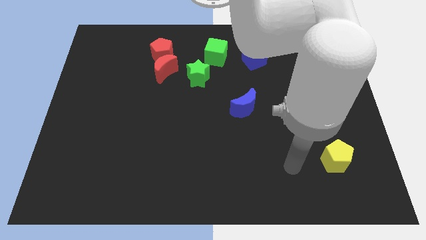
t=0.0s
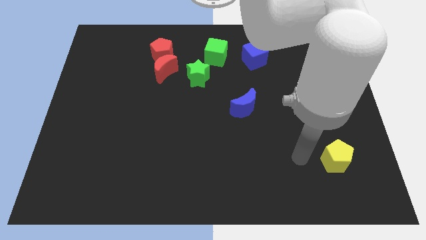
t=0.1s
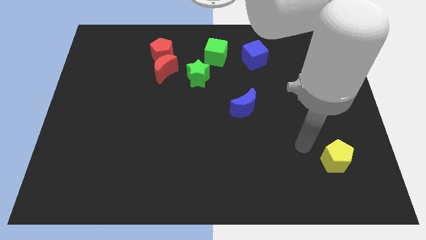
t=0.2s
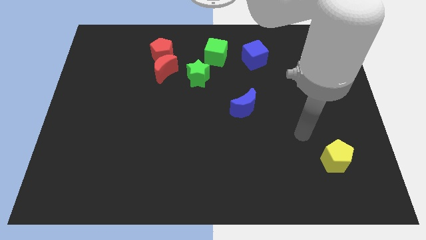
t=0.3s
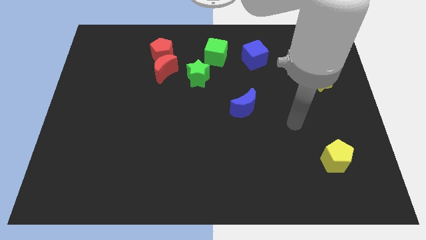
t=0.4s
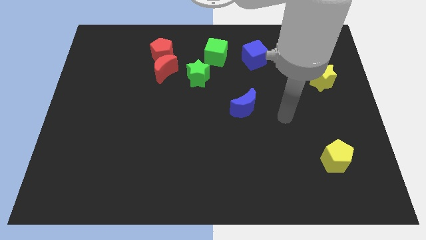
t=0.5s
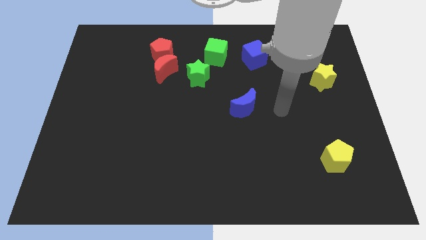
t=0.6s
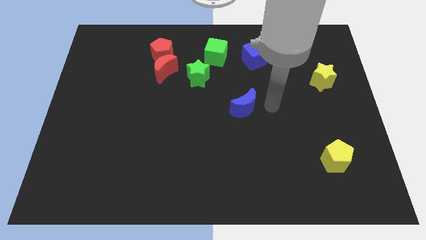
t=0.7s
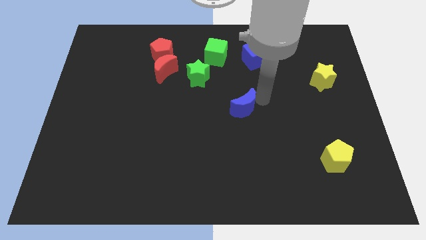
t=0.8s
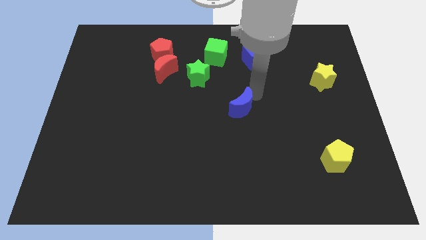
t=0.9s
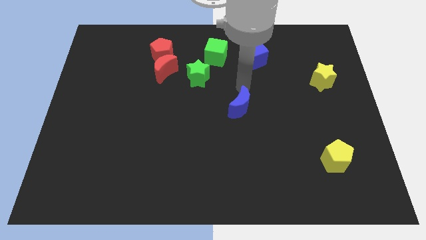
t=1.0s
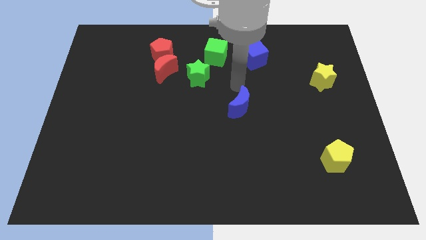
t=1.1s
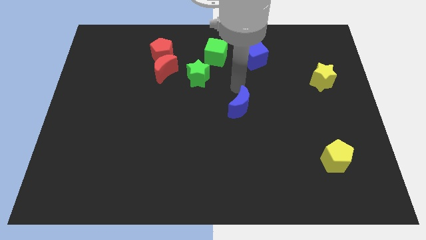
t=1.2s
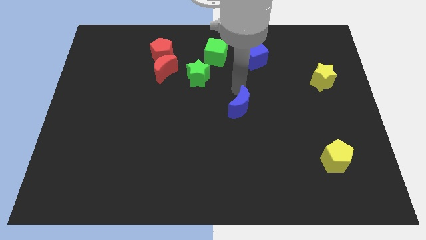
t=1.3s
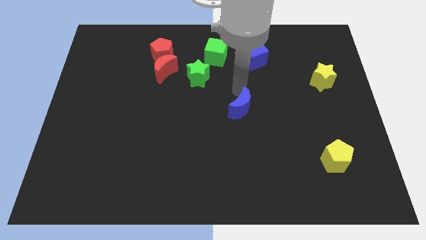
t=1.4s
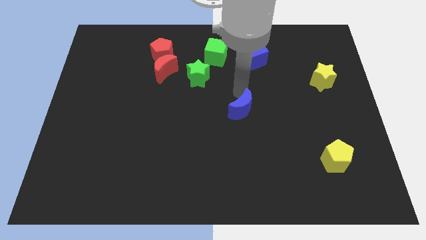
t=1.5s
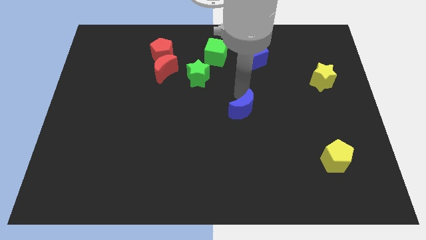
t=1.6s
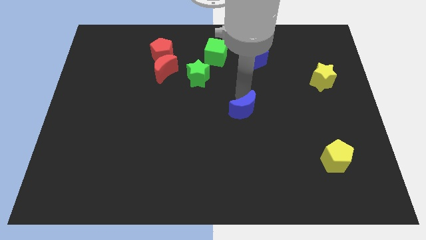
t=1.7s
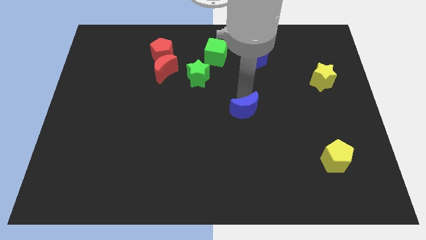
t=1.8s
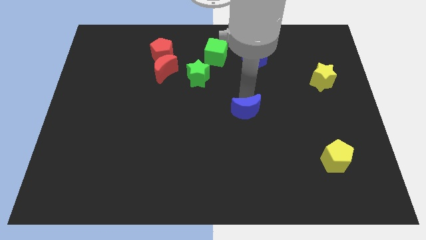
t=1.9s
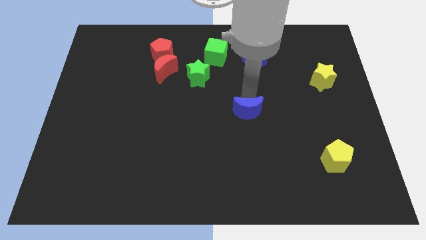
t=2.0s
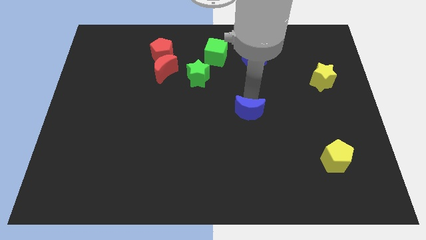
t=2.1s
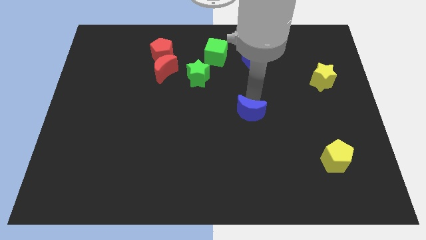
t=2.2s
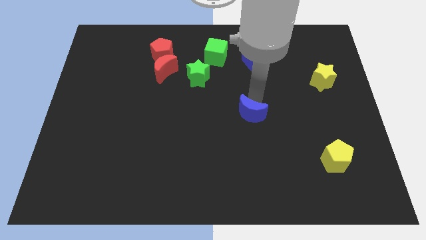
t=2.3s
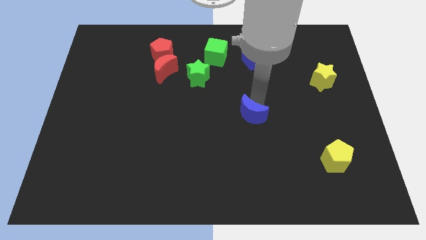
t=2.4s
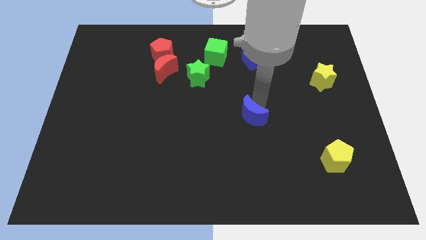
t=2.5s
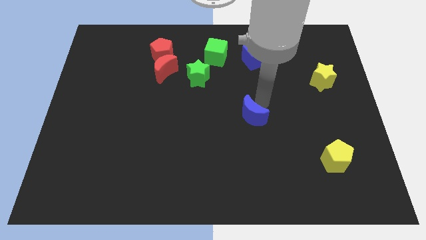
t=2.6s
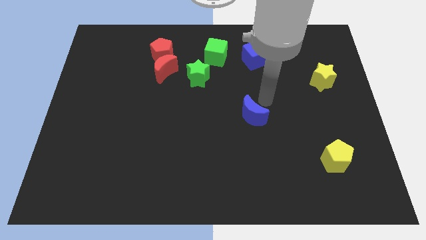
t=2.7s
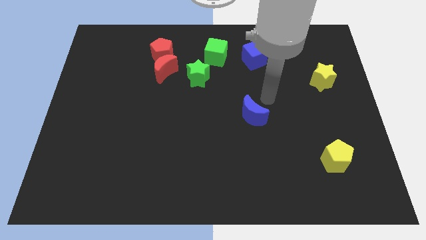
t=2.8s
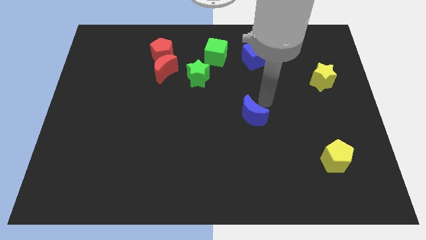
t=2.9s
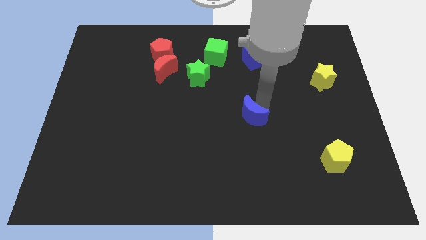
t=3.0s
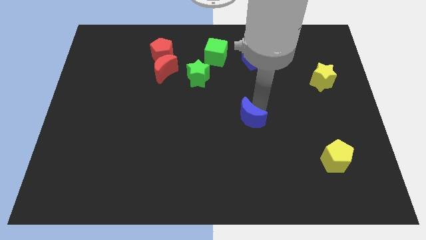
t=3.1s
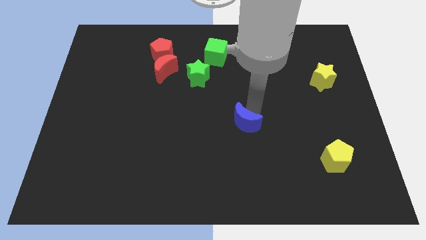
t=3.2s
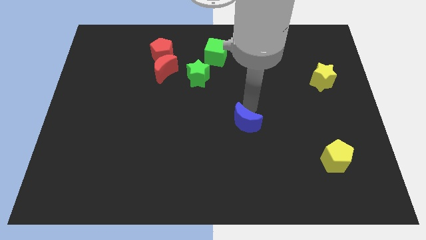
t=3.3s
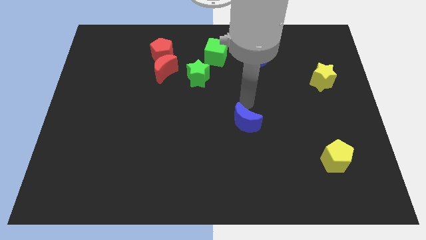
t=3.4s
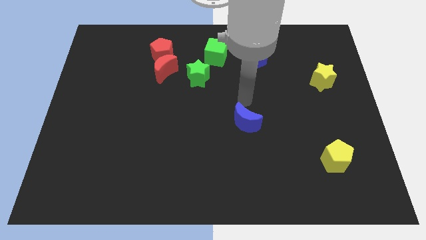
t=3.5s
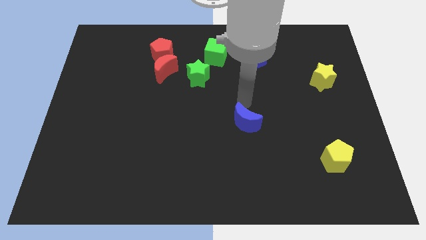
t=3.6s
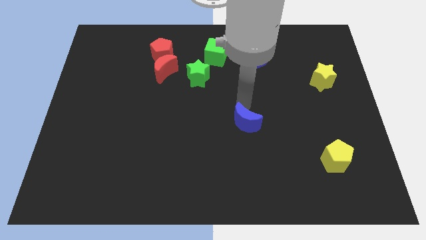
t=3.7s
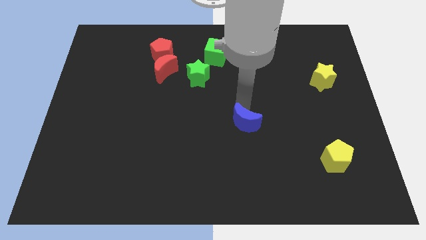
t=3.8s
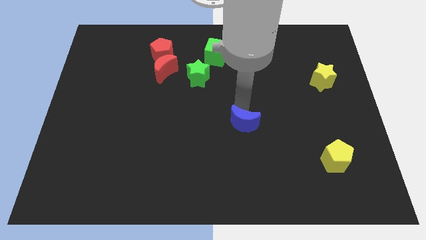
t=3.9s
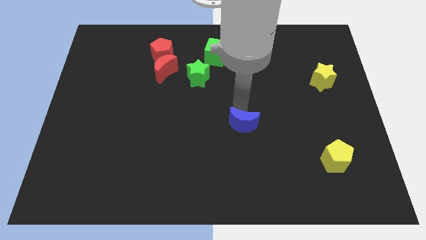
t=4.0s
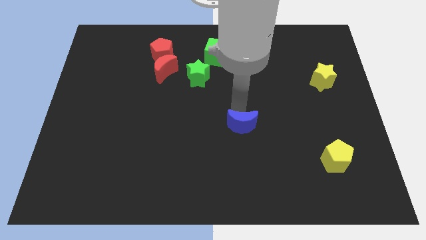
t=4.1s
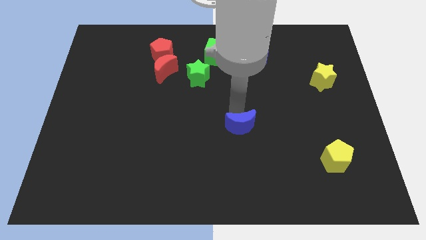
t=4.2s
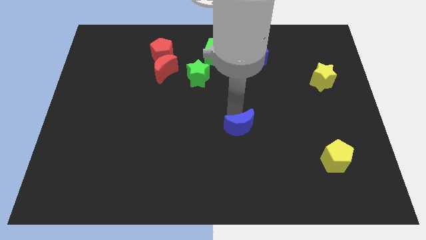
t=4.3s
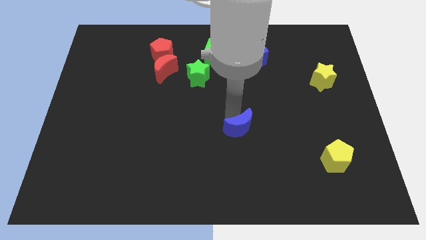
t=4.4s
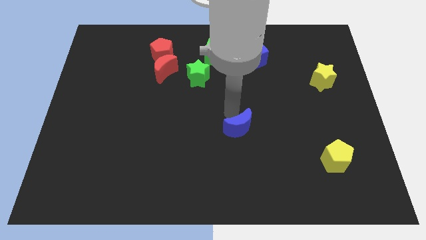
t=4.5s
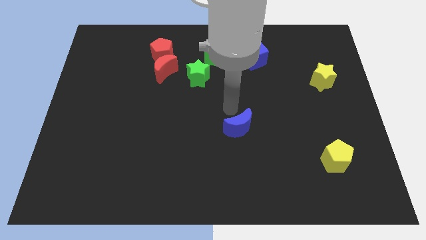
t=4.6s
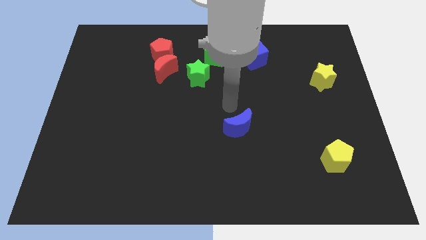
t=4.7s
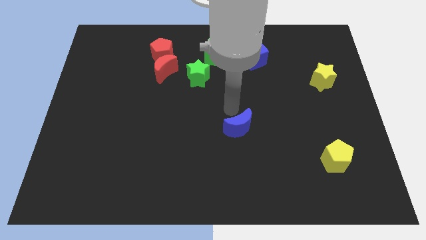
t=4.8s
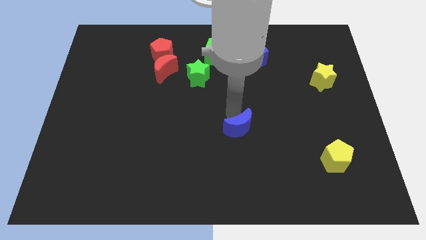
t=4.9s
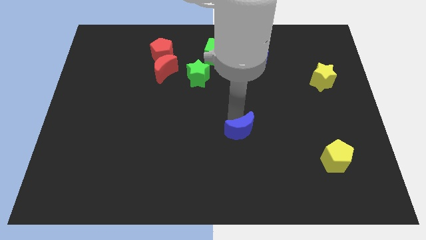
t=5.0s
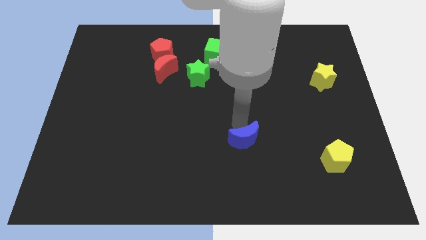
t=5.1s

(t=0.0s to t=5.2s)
move the blue moon slightly down

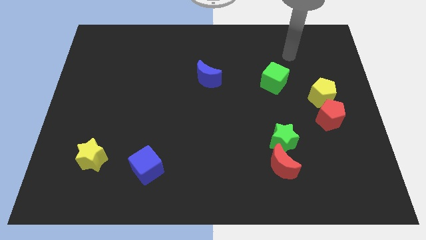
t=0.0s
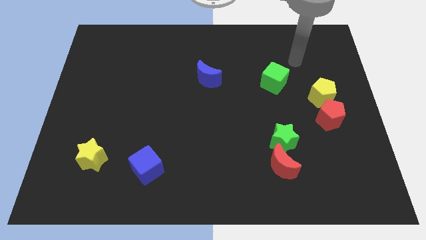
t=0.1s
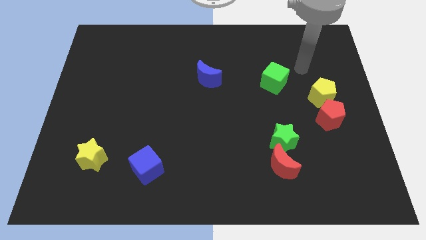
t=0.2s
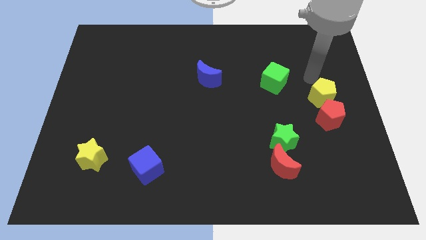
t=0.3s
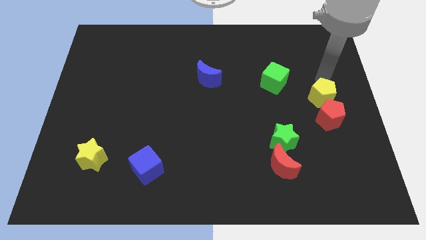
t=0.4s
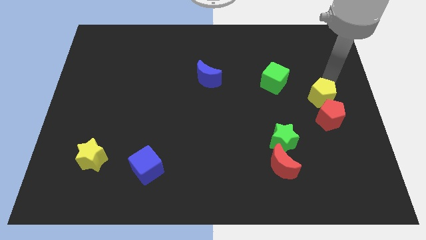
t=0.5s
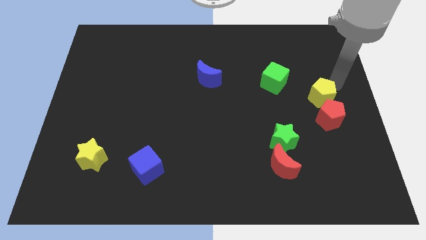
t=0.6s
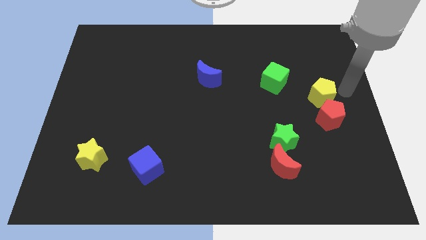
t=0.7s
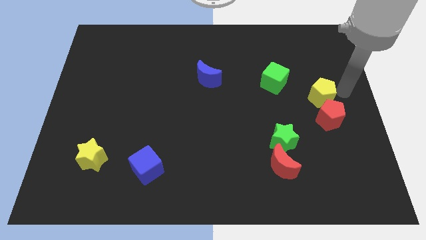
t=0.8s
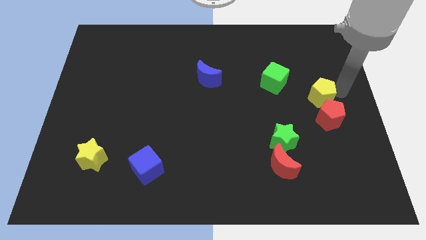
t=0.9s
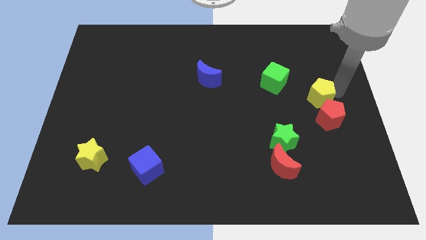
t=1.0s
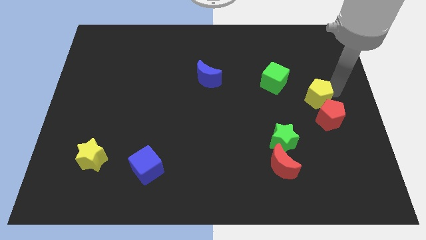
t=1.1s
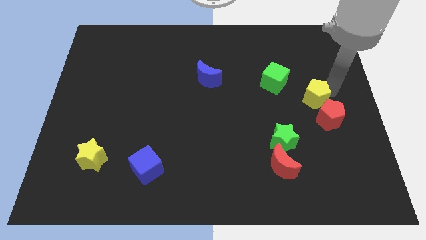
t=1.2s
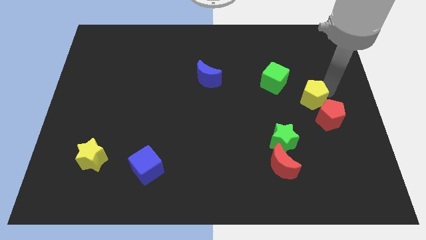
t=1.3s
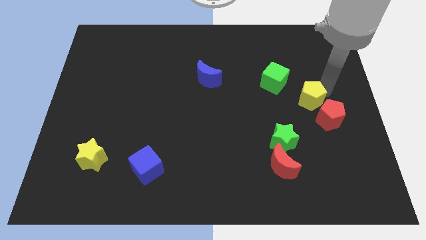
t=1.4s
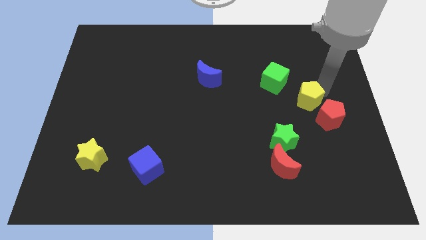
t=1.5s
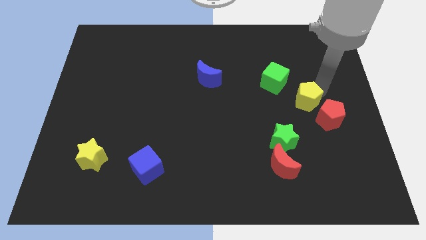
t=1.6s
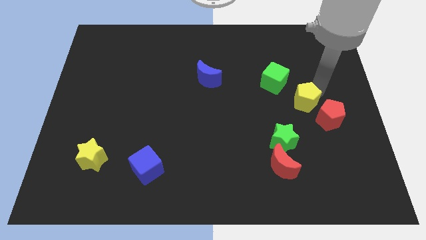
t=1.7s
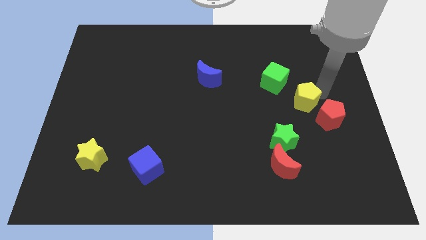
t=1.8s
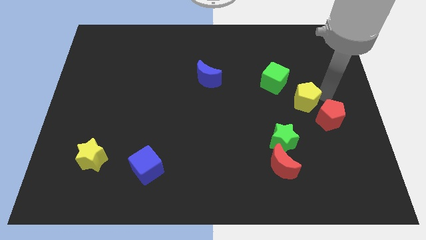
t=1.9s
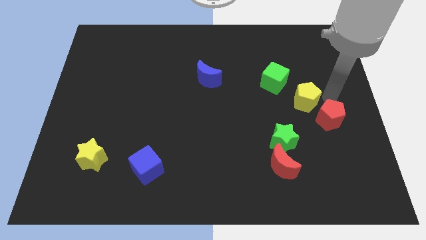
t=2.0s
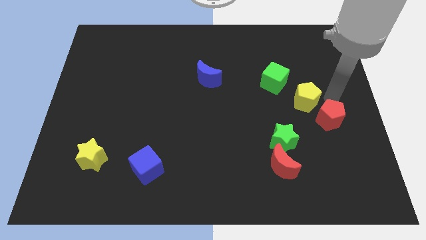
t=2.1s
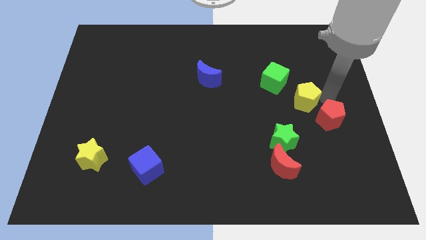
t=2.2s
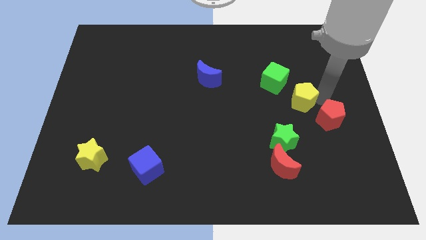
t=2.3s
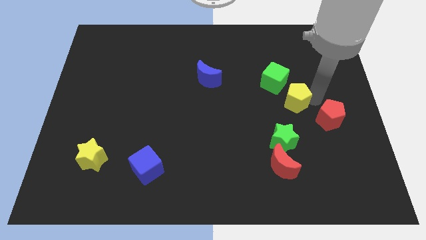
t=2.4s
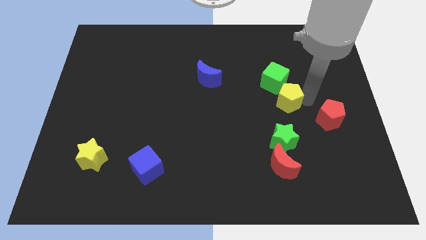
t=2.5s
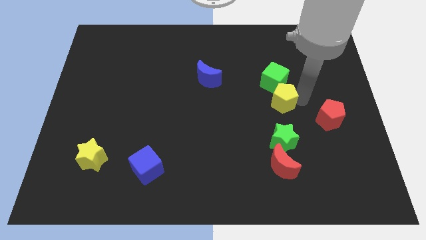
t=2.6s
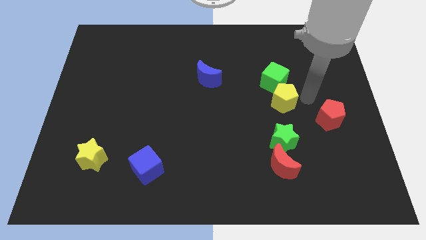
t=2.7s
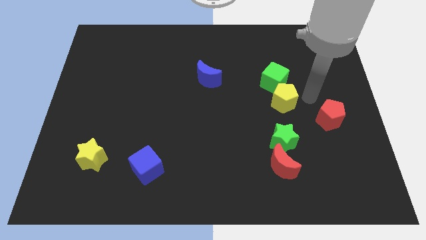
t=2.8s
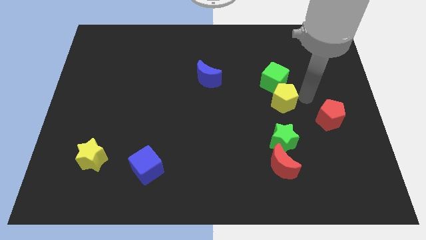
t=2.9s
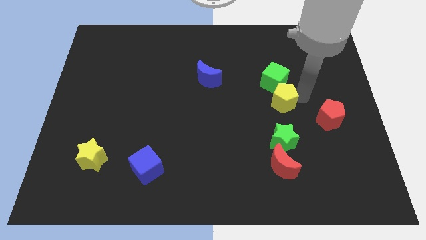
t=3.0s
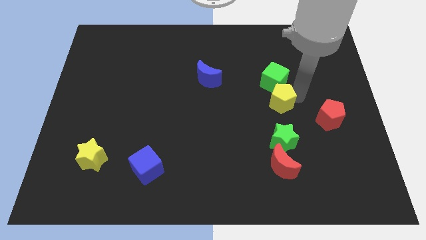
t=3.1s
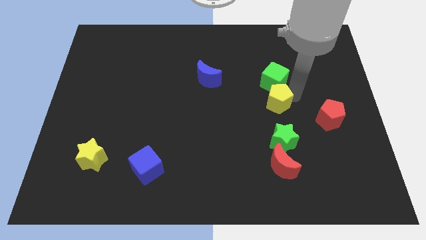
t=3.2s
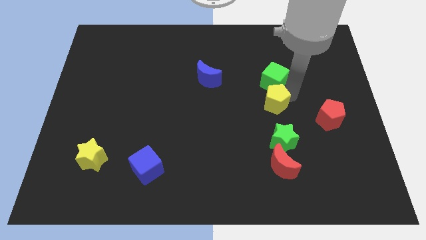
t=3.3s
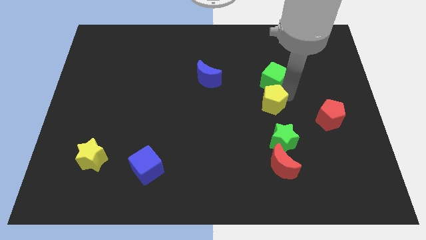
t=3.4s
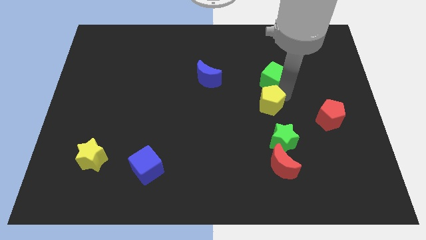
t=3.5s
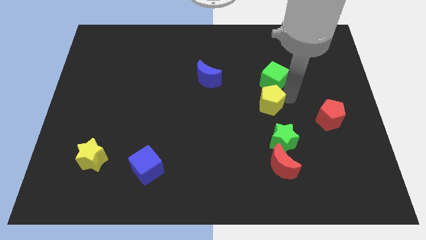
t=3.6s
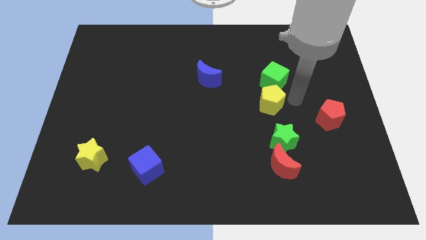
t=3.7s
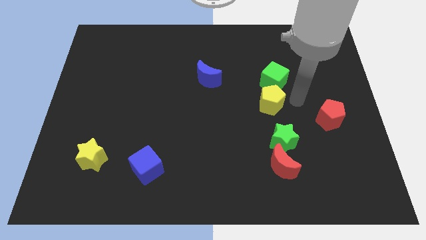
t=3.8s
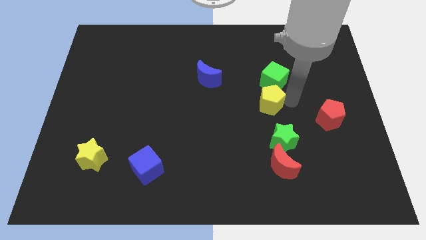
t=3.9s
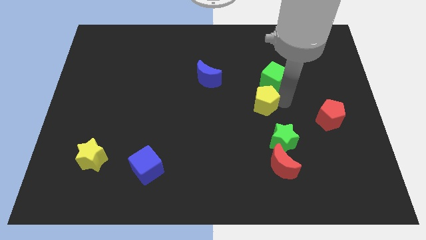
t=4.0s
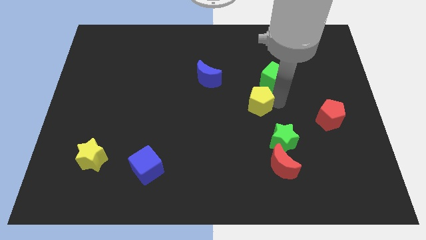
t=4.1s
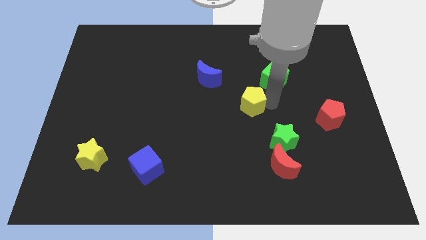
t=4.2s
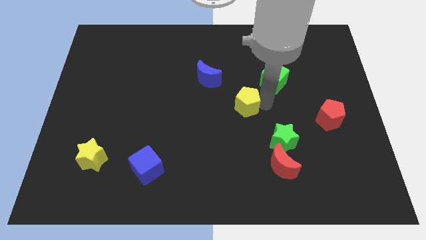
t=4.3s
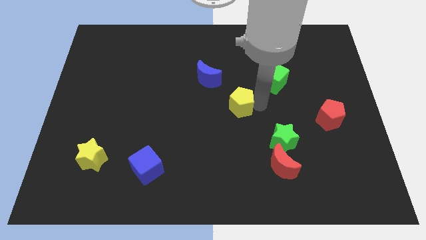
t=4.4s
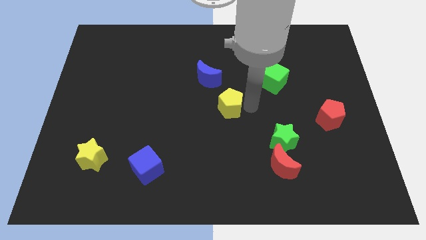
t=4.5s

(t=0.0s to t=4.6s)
slide the yellow pentagon to the left
